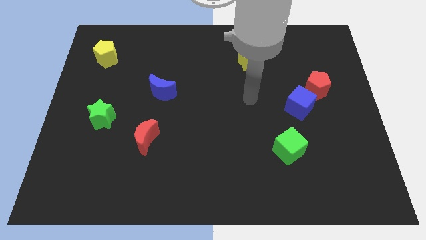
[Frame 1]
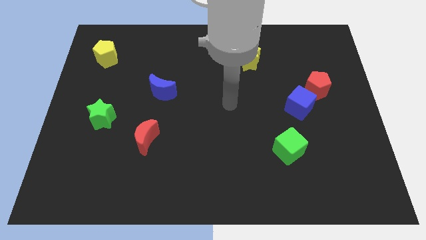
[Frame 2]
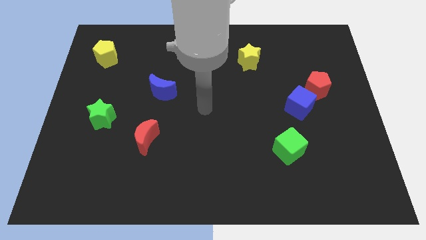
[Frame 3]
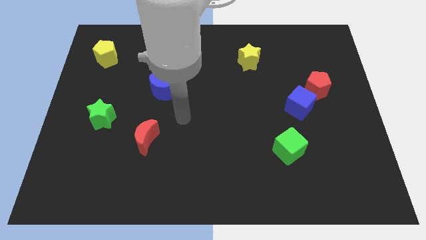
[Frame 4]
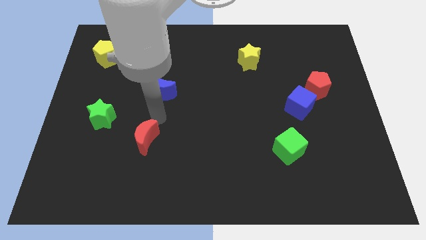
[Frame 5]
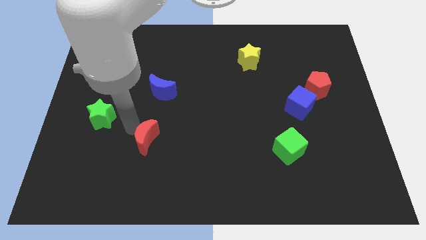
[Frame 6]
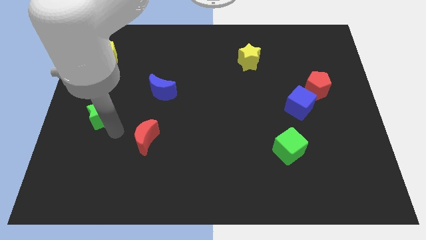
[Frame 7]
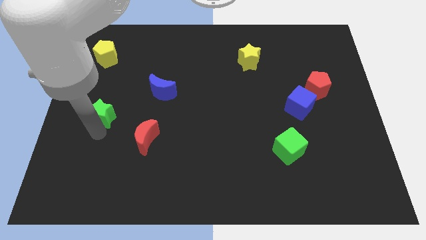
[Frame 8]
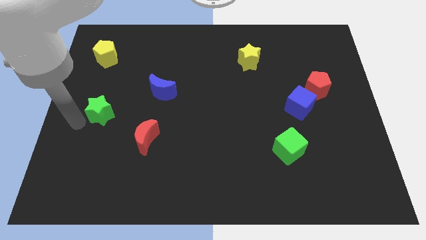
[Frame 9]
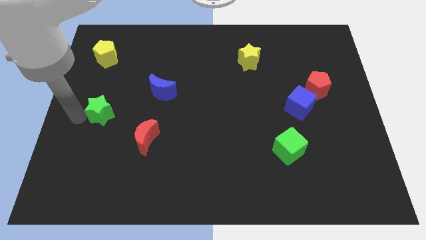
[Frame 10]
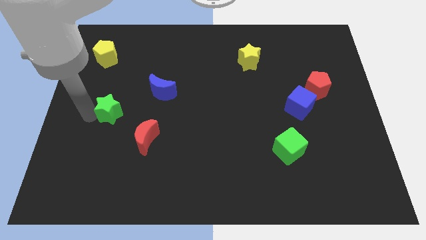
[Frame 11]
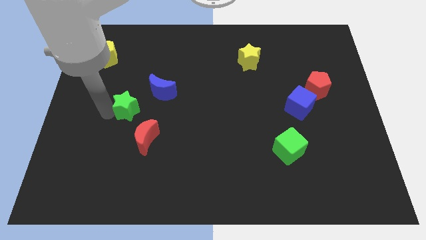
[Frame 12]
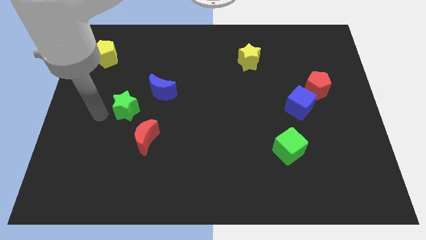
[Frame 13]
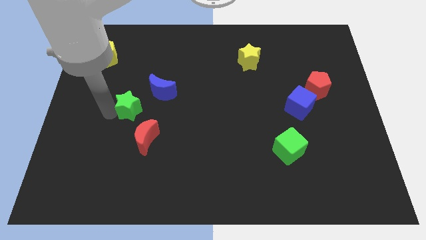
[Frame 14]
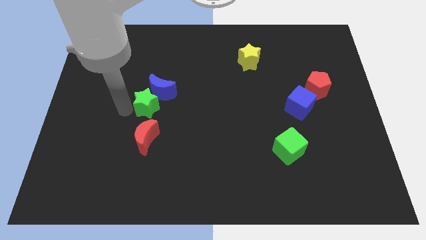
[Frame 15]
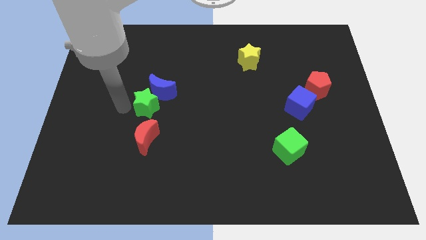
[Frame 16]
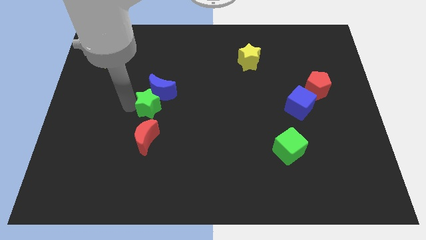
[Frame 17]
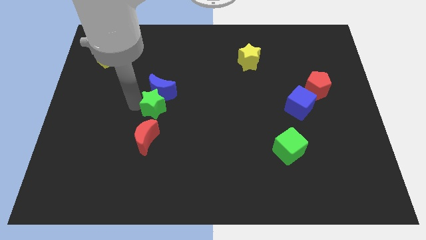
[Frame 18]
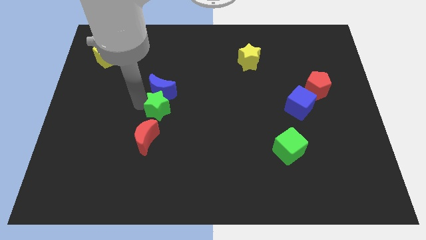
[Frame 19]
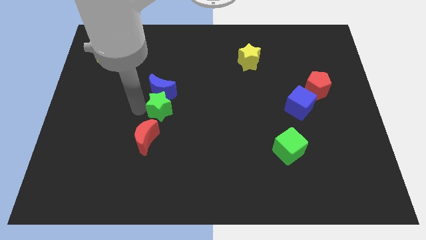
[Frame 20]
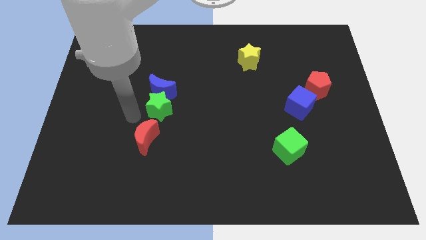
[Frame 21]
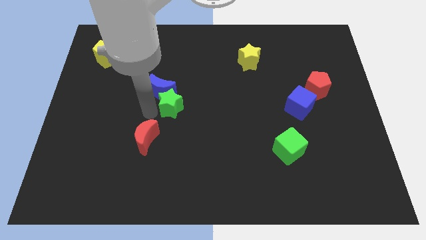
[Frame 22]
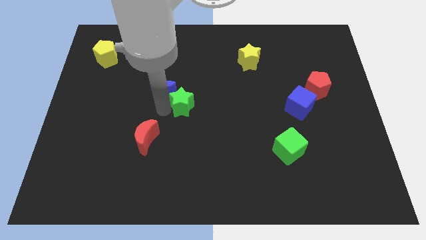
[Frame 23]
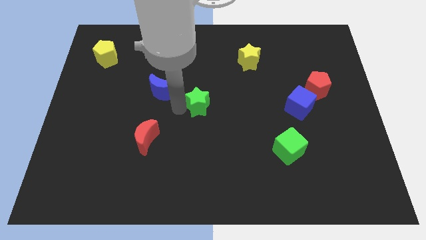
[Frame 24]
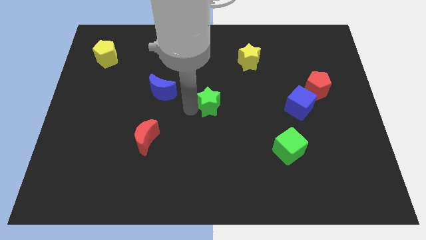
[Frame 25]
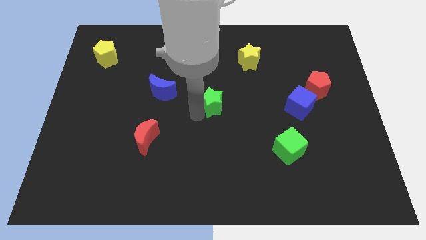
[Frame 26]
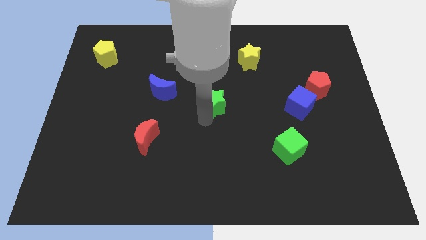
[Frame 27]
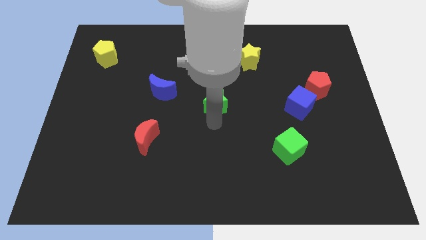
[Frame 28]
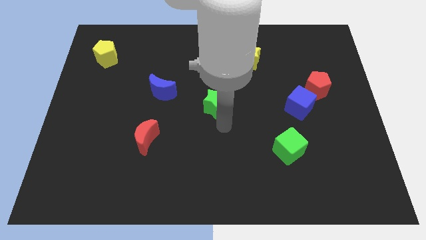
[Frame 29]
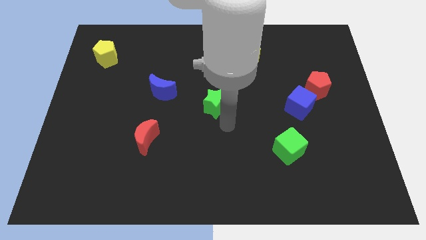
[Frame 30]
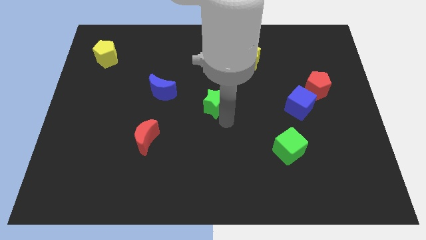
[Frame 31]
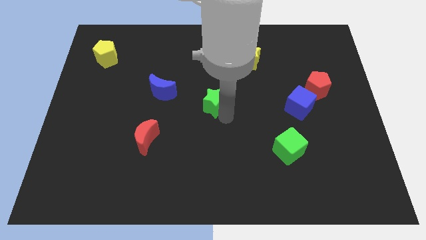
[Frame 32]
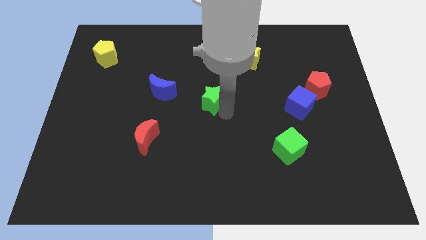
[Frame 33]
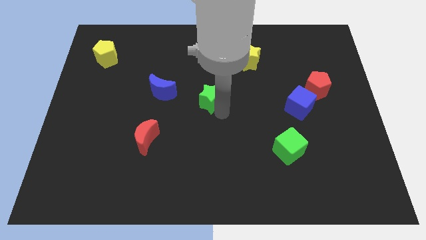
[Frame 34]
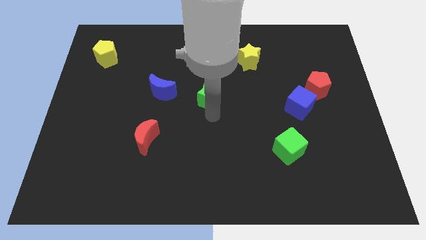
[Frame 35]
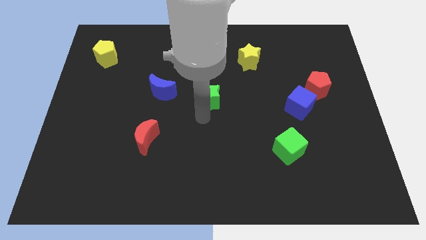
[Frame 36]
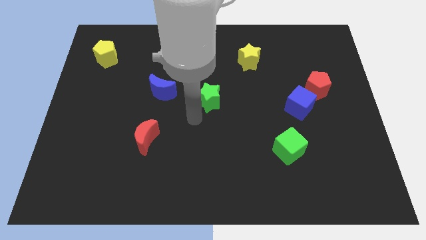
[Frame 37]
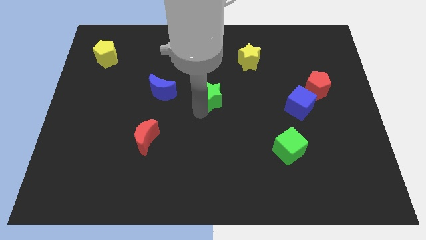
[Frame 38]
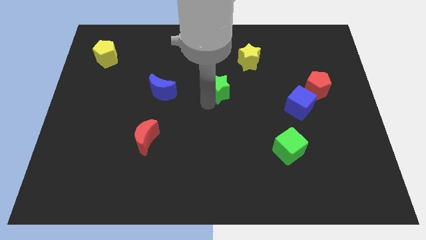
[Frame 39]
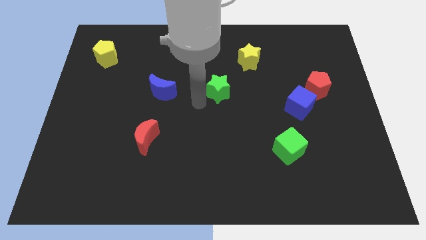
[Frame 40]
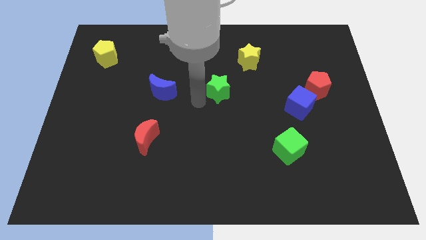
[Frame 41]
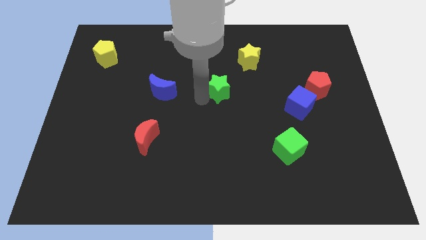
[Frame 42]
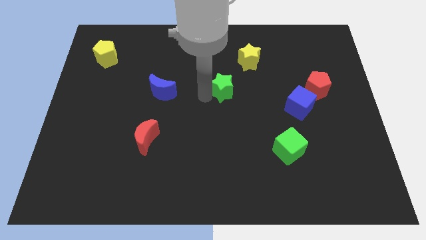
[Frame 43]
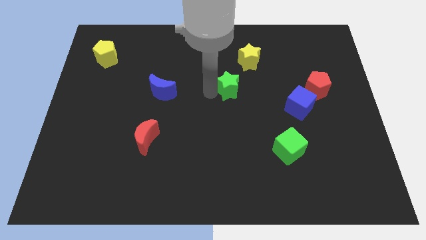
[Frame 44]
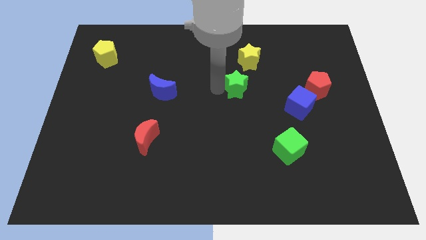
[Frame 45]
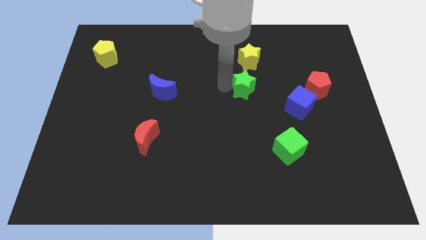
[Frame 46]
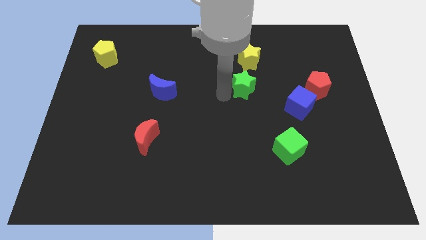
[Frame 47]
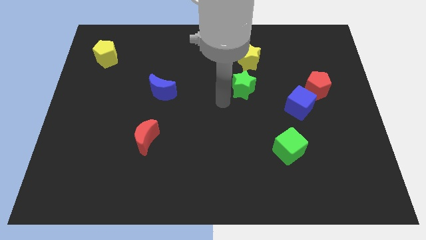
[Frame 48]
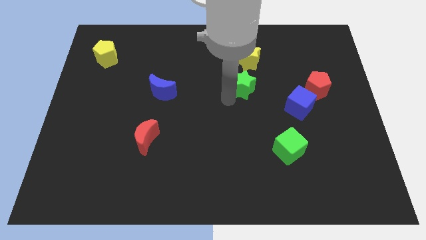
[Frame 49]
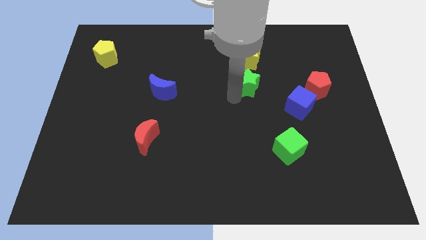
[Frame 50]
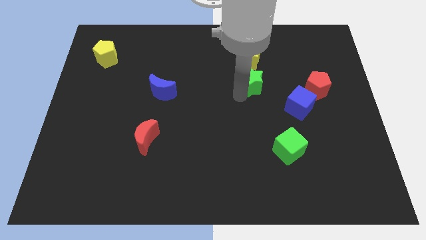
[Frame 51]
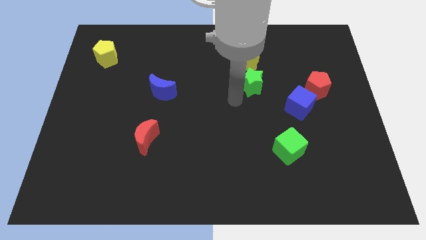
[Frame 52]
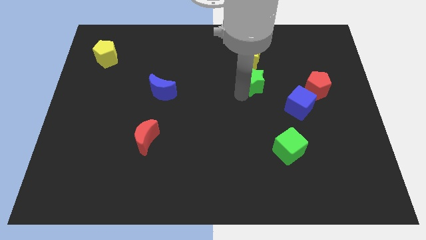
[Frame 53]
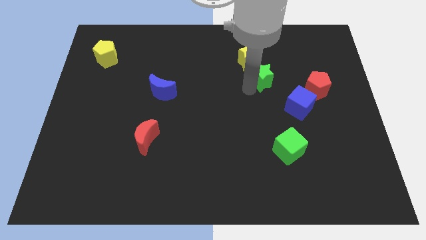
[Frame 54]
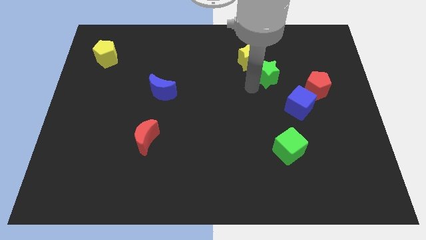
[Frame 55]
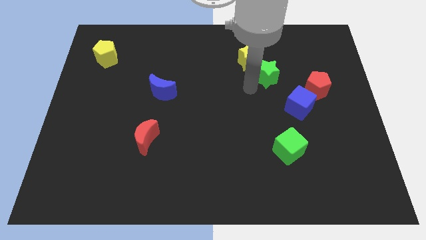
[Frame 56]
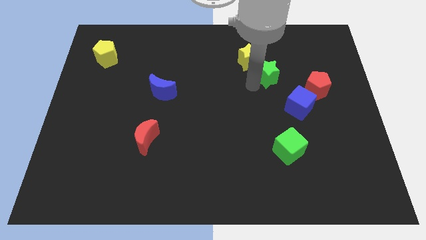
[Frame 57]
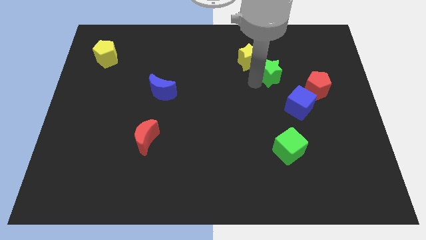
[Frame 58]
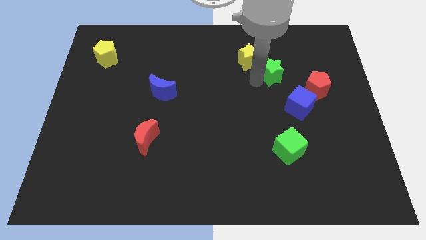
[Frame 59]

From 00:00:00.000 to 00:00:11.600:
move the green star just right of the yellow star

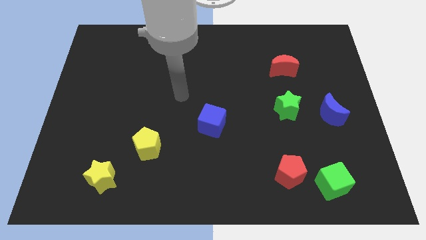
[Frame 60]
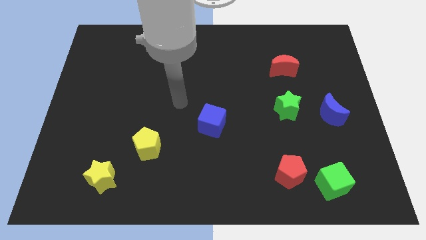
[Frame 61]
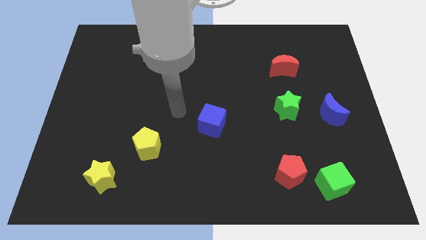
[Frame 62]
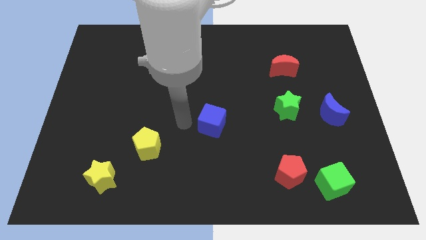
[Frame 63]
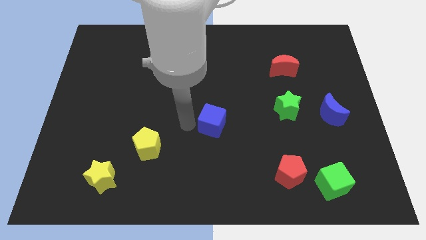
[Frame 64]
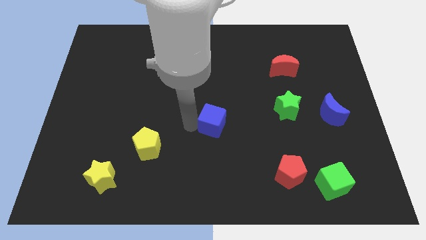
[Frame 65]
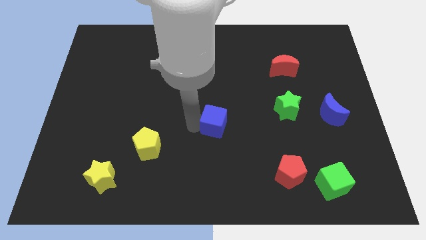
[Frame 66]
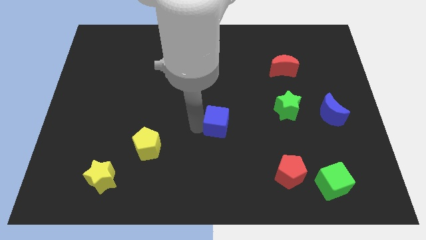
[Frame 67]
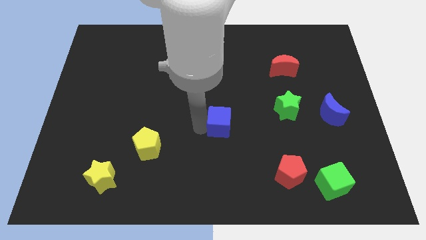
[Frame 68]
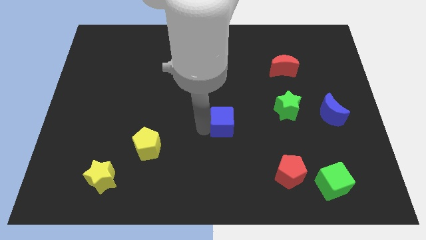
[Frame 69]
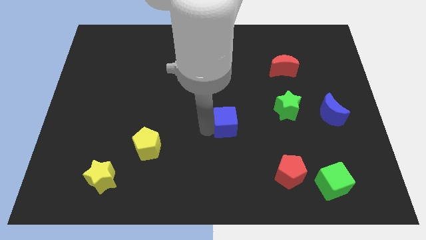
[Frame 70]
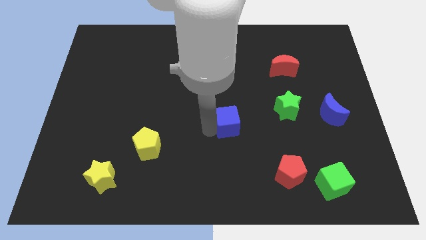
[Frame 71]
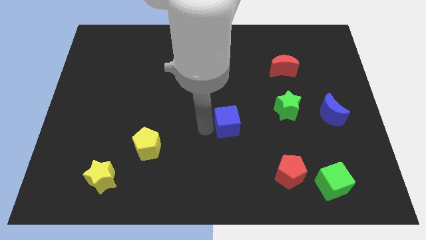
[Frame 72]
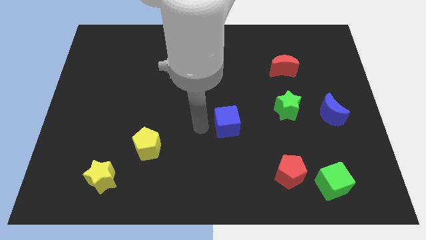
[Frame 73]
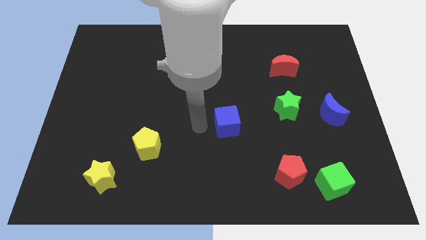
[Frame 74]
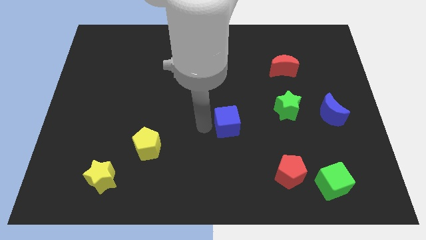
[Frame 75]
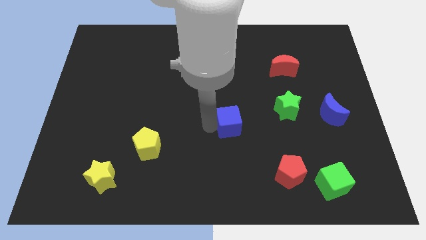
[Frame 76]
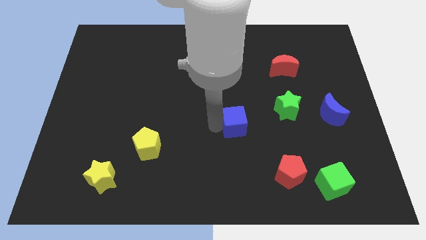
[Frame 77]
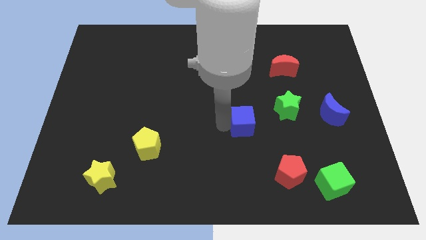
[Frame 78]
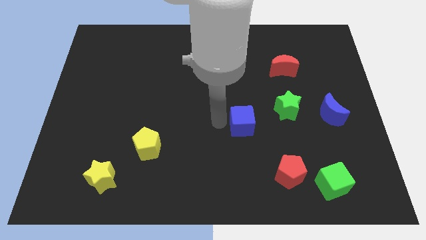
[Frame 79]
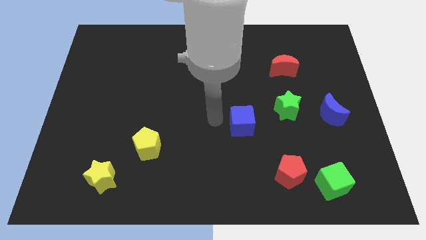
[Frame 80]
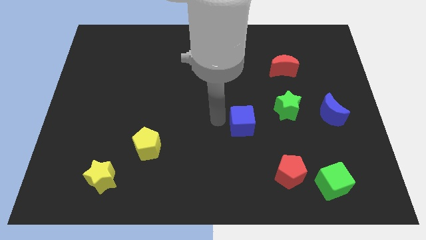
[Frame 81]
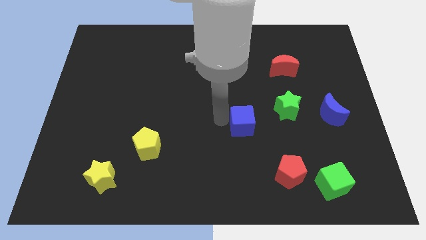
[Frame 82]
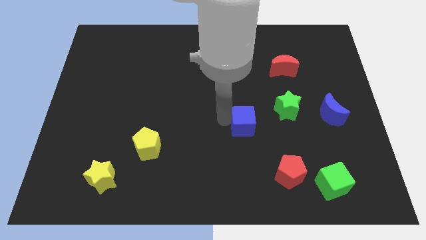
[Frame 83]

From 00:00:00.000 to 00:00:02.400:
put the blue cube diagonally down and to the left of the green star

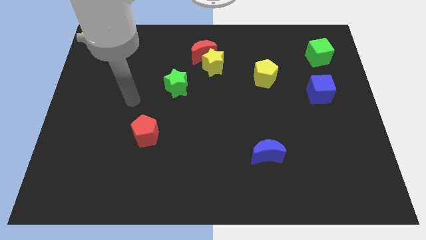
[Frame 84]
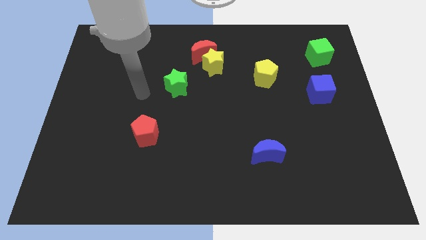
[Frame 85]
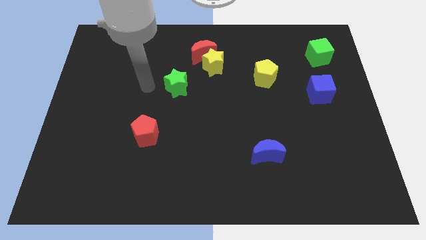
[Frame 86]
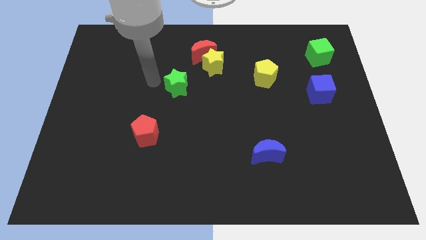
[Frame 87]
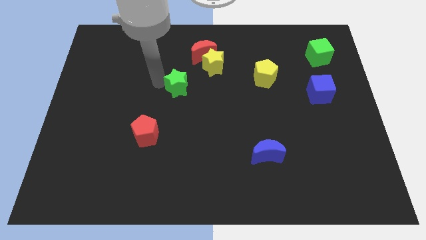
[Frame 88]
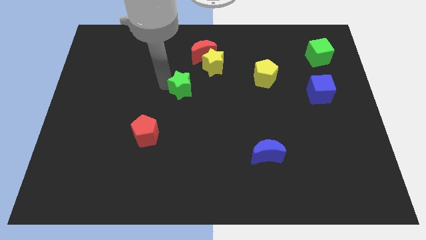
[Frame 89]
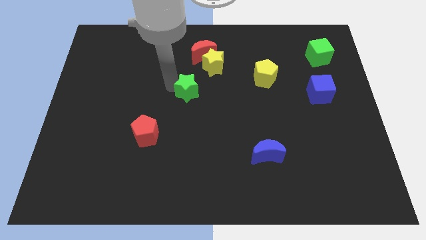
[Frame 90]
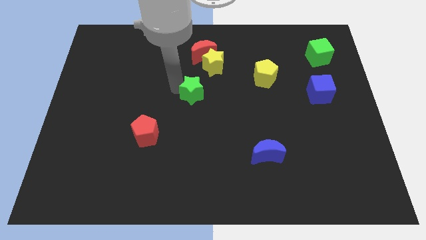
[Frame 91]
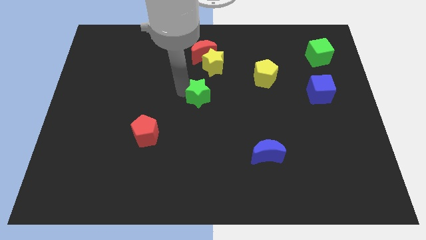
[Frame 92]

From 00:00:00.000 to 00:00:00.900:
slide the green star to the bottom side of the yellow star
